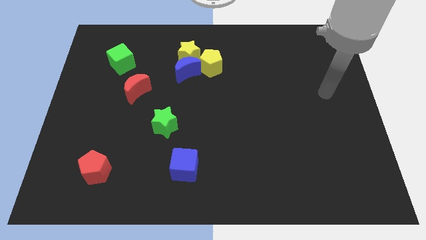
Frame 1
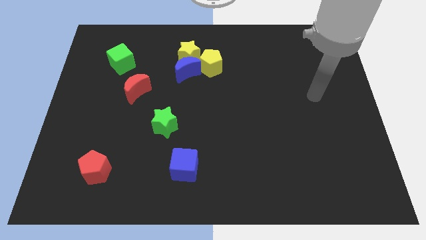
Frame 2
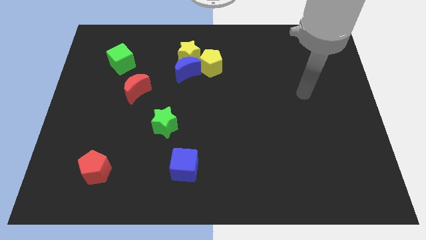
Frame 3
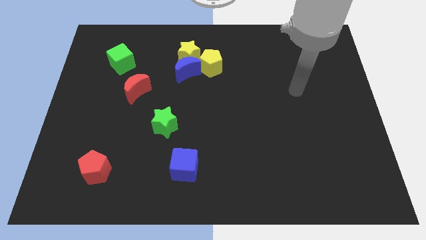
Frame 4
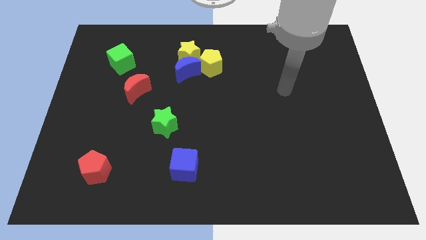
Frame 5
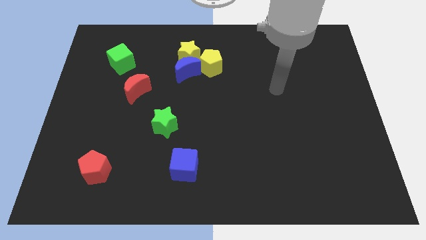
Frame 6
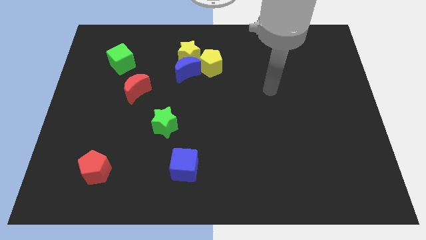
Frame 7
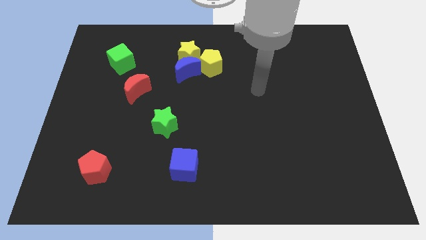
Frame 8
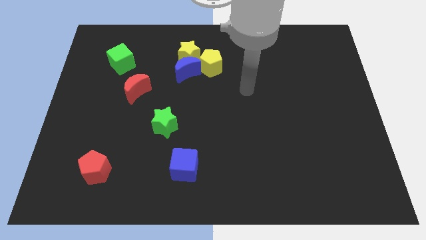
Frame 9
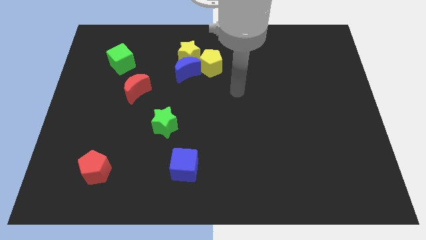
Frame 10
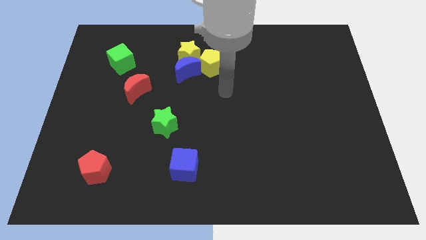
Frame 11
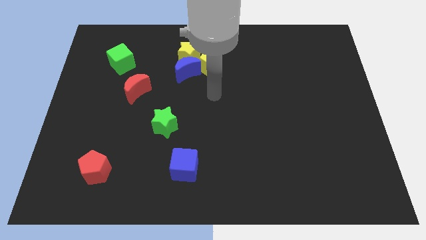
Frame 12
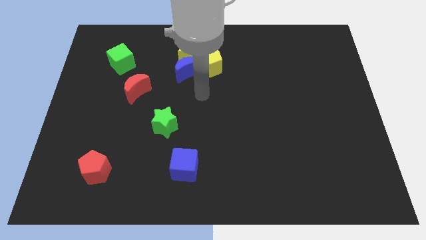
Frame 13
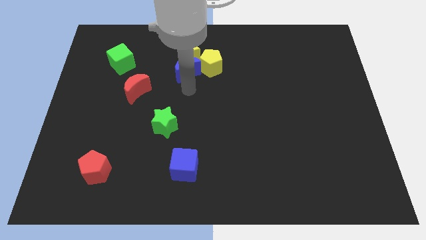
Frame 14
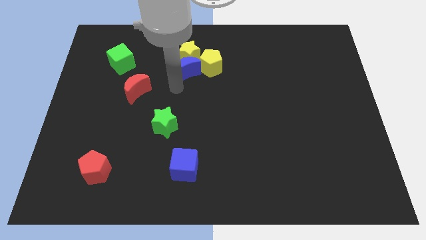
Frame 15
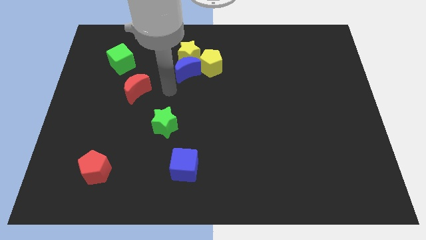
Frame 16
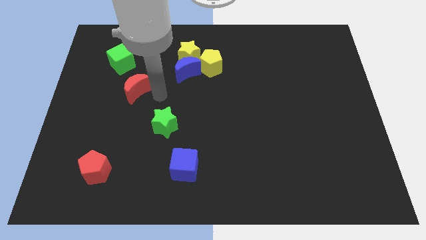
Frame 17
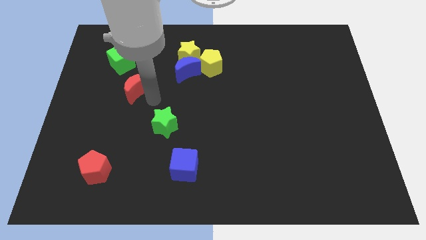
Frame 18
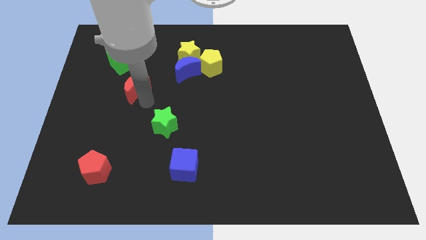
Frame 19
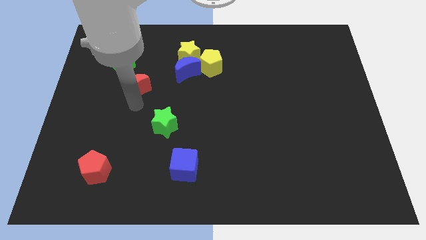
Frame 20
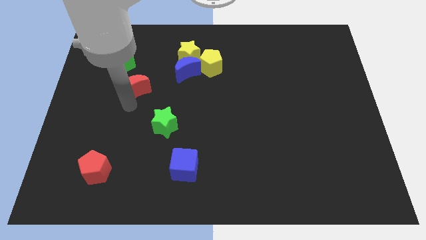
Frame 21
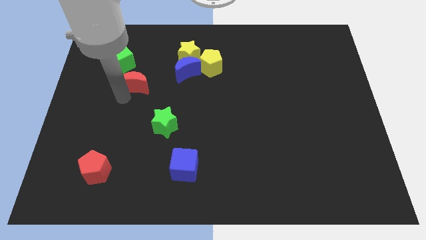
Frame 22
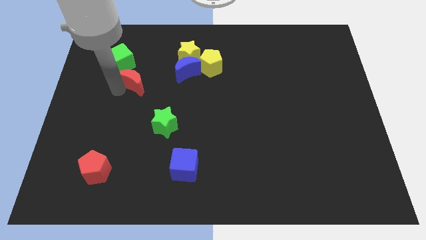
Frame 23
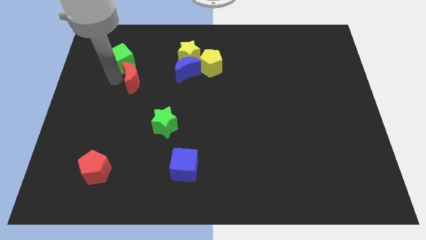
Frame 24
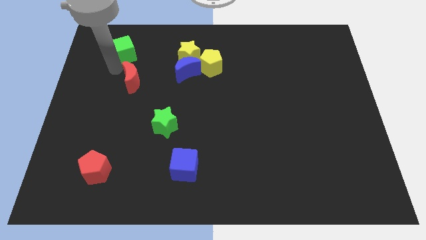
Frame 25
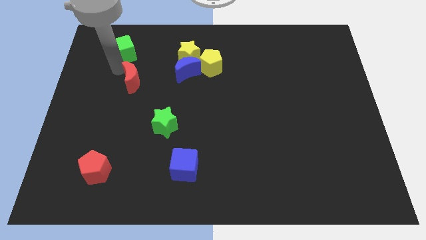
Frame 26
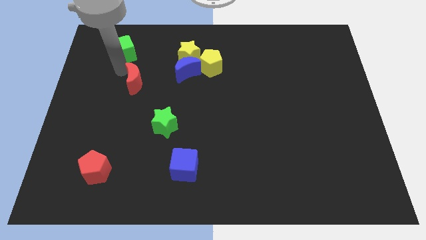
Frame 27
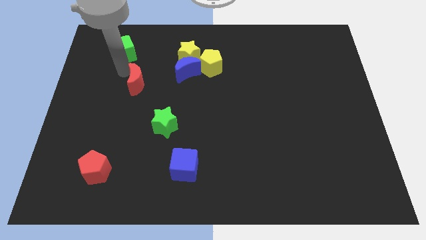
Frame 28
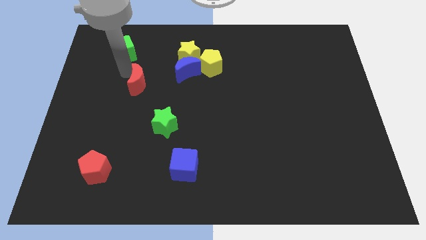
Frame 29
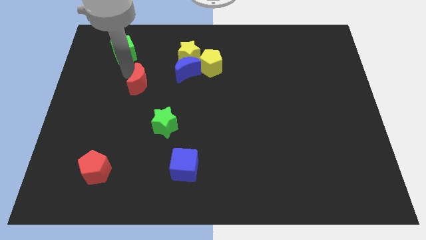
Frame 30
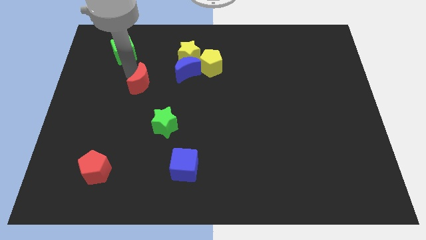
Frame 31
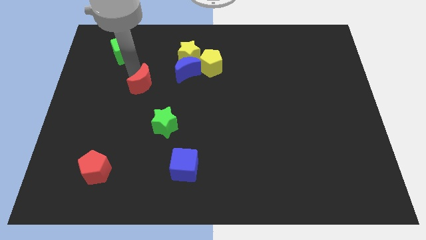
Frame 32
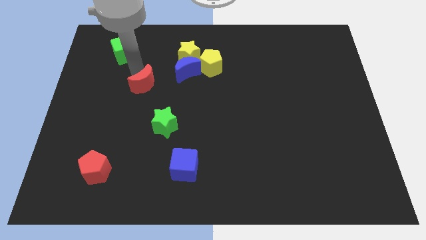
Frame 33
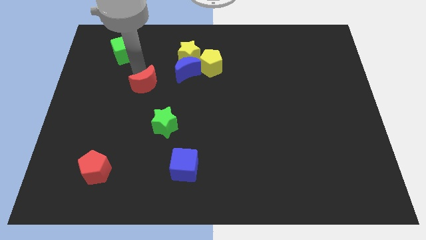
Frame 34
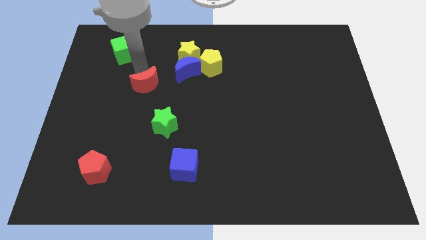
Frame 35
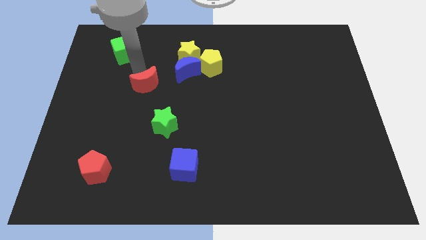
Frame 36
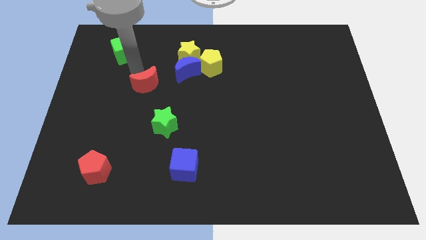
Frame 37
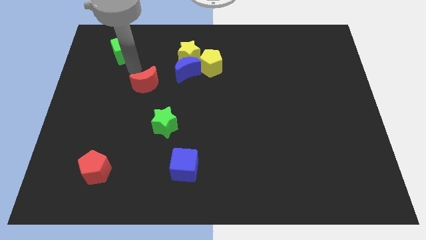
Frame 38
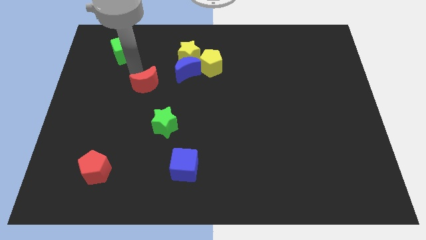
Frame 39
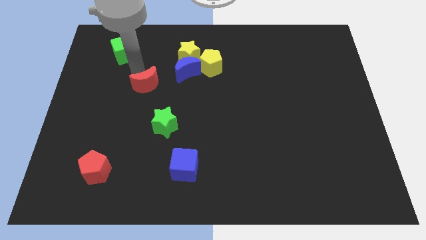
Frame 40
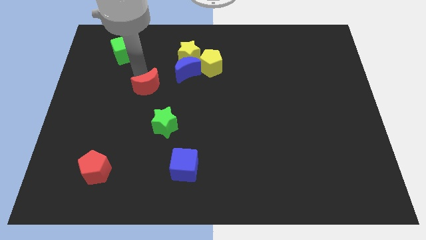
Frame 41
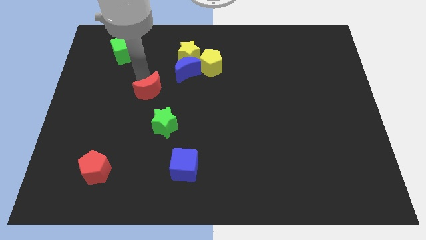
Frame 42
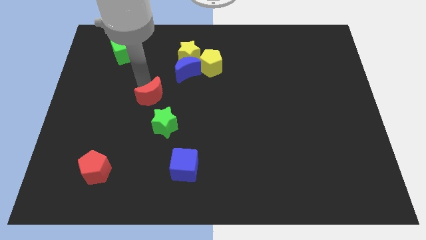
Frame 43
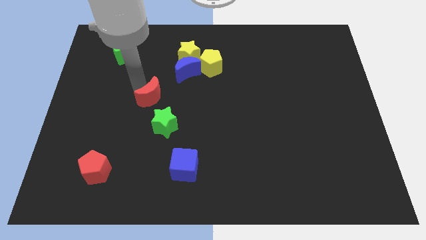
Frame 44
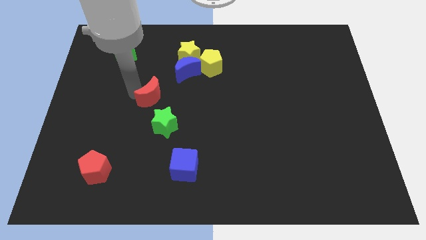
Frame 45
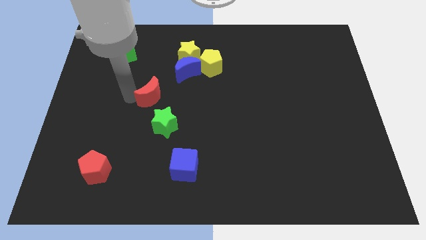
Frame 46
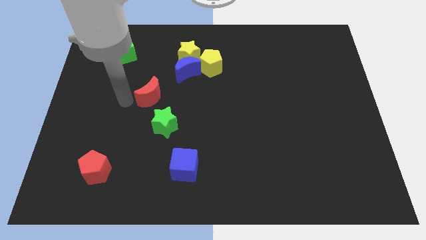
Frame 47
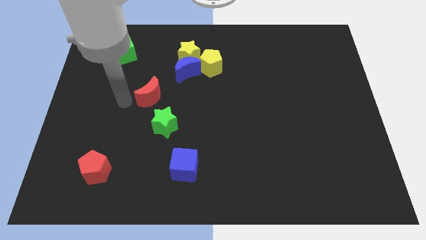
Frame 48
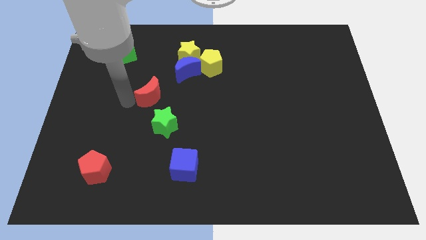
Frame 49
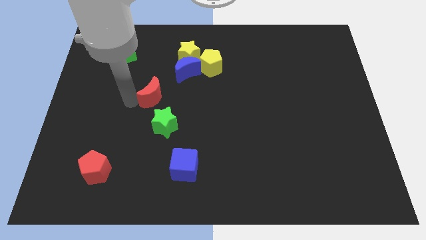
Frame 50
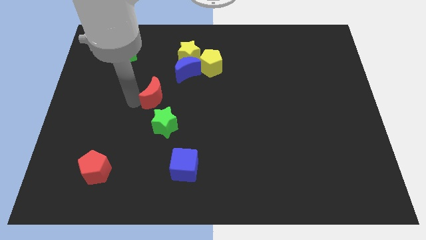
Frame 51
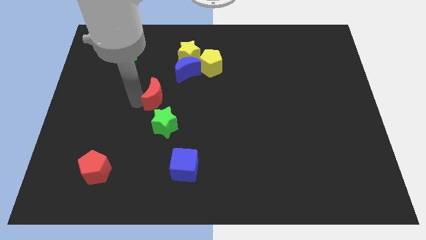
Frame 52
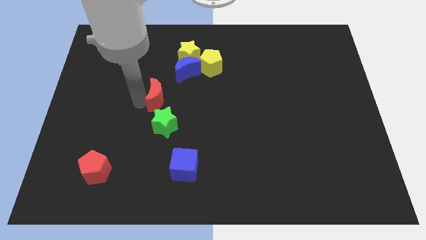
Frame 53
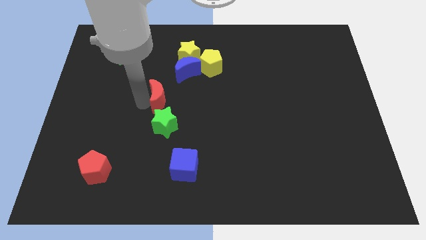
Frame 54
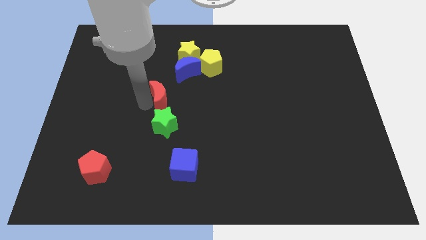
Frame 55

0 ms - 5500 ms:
push the red moon to the middle of the board
